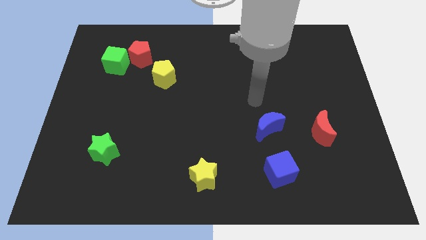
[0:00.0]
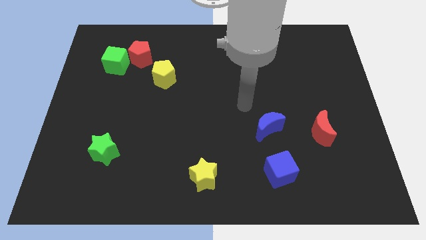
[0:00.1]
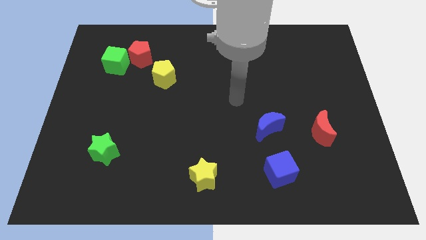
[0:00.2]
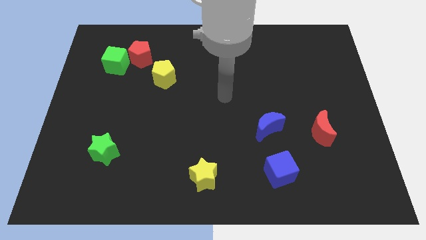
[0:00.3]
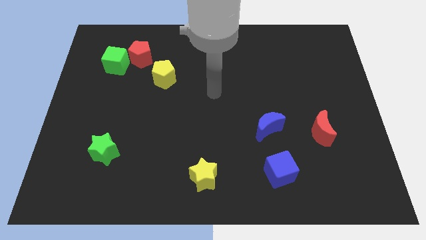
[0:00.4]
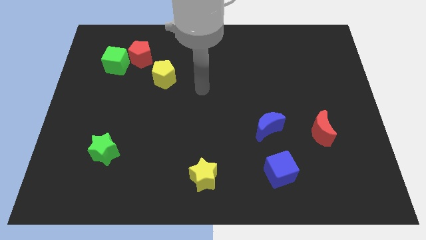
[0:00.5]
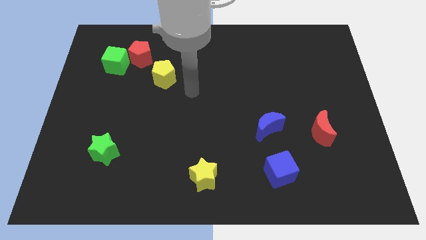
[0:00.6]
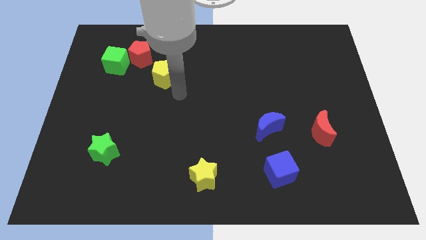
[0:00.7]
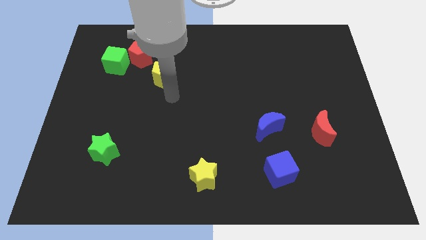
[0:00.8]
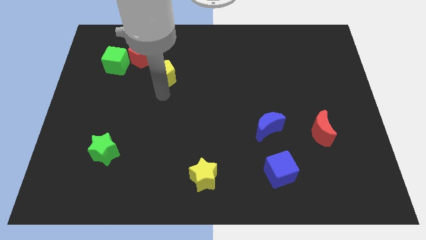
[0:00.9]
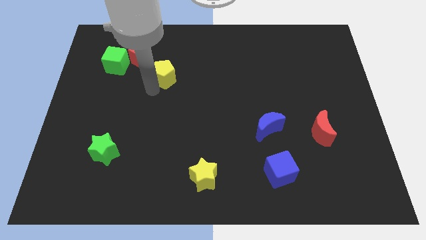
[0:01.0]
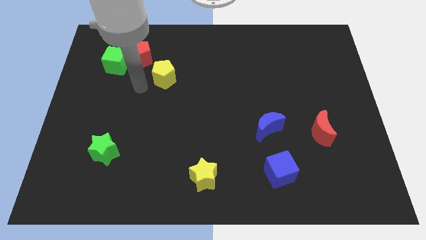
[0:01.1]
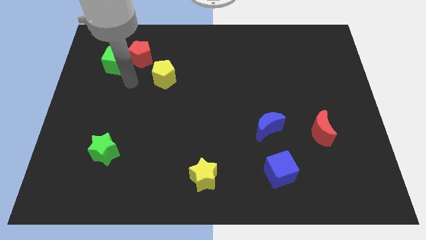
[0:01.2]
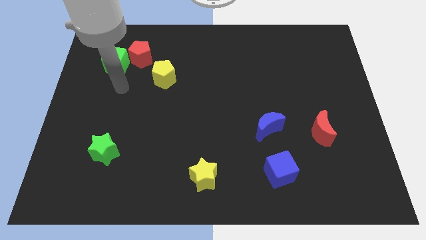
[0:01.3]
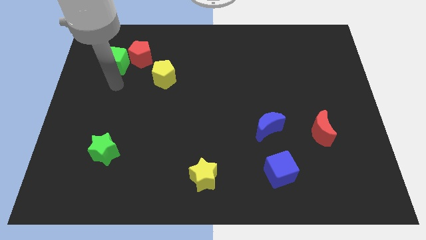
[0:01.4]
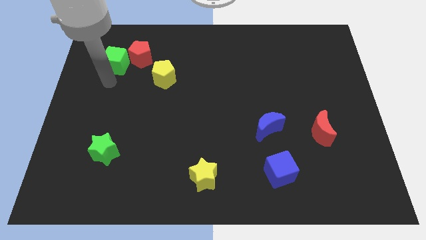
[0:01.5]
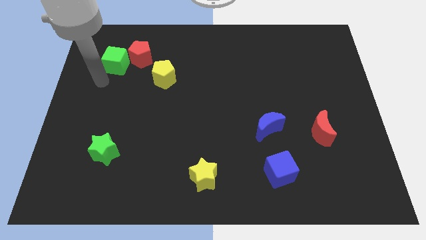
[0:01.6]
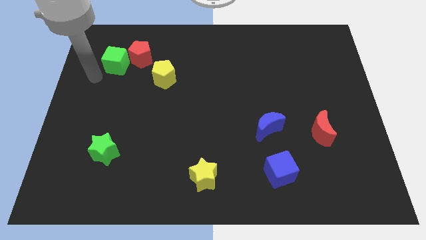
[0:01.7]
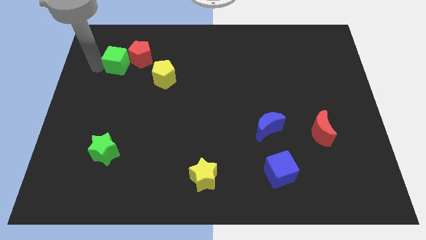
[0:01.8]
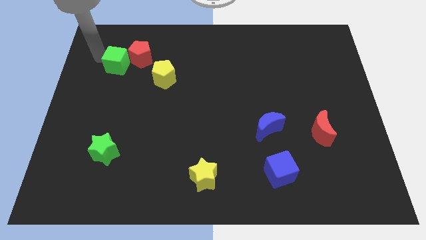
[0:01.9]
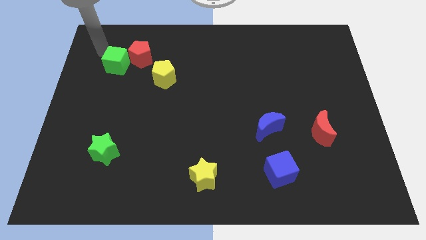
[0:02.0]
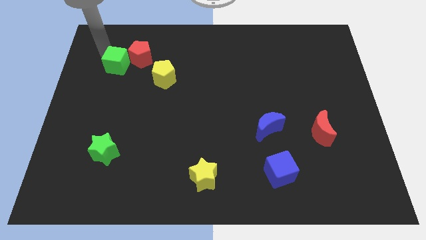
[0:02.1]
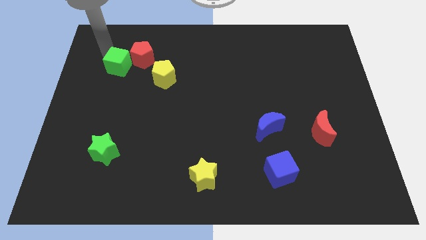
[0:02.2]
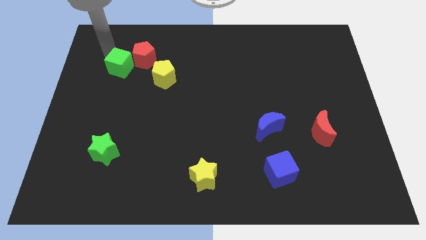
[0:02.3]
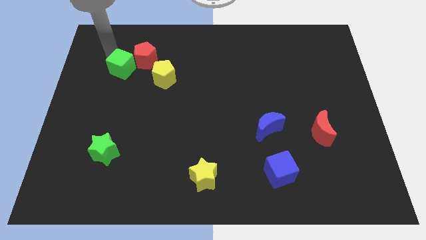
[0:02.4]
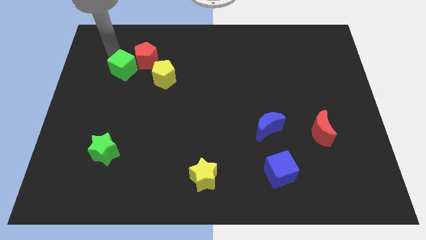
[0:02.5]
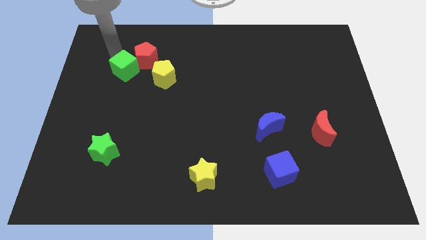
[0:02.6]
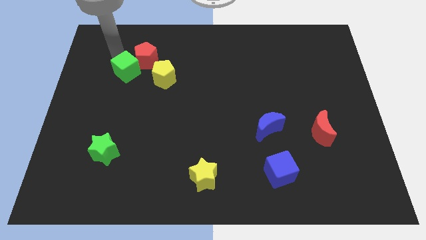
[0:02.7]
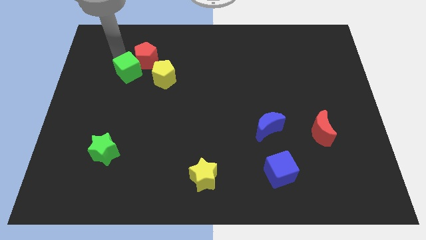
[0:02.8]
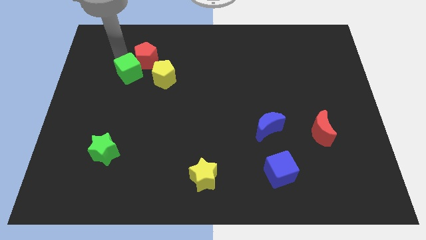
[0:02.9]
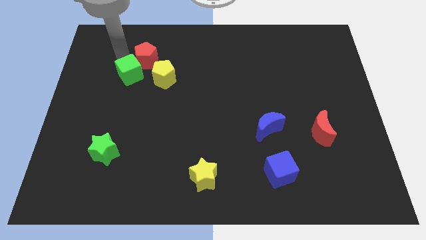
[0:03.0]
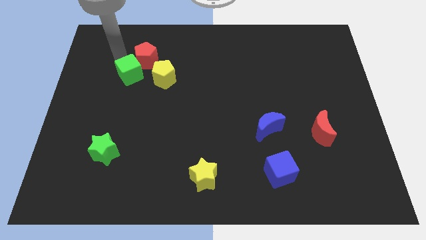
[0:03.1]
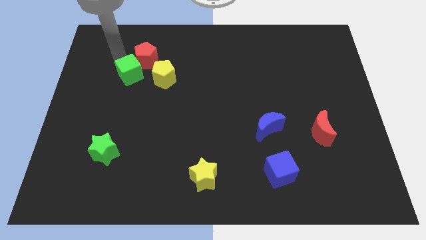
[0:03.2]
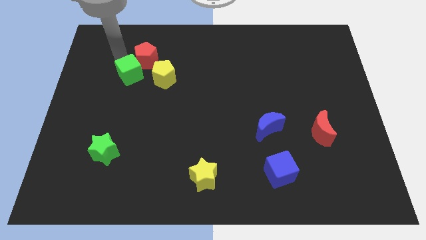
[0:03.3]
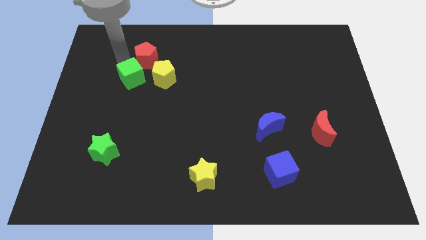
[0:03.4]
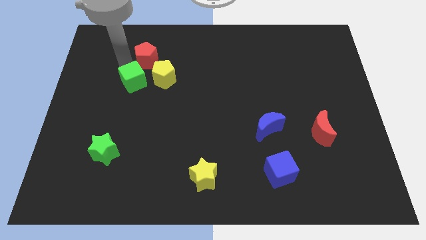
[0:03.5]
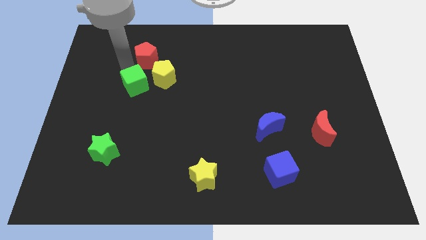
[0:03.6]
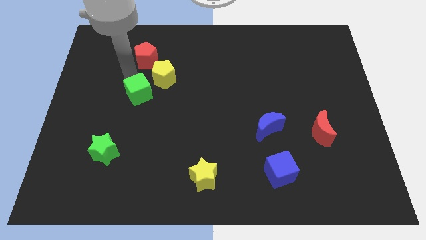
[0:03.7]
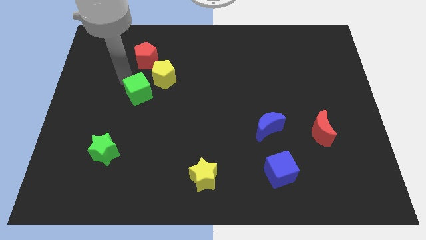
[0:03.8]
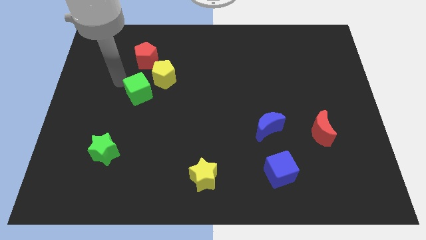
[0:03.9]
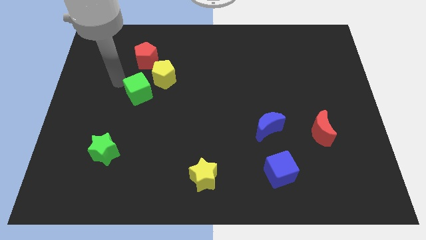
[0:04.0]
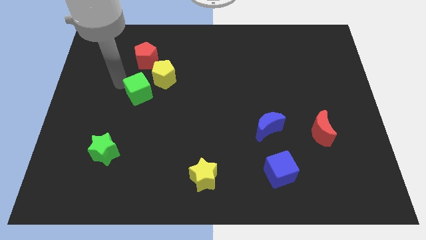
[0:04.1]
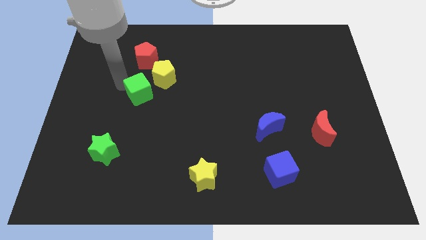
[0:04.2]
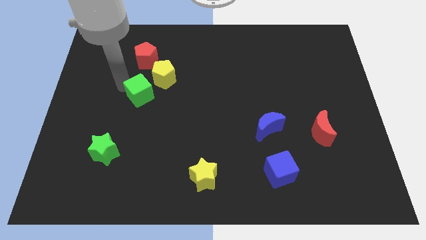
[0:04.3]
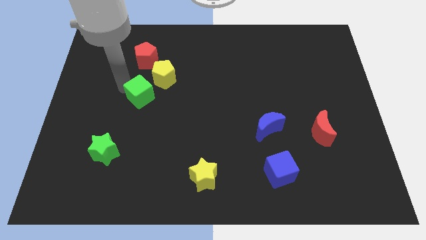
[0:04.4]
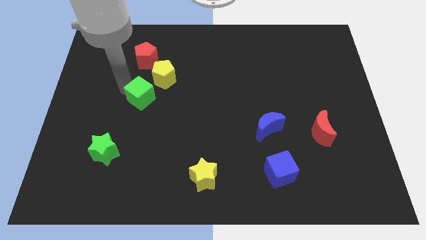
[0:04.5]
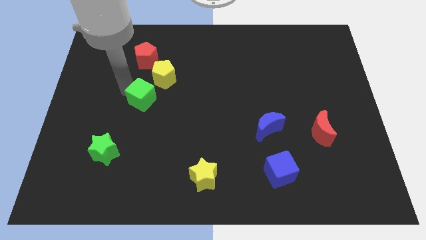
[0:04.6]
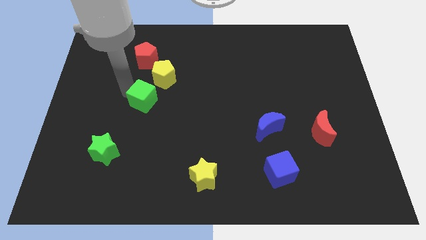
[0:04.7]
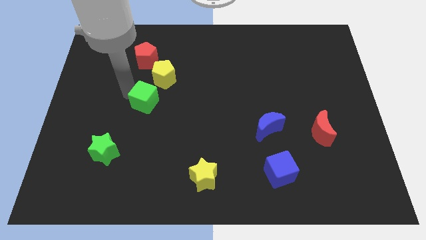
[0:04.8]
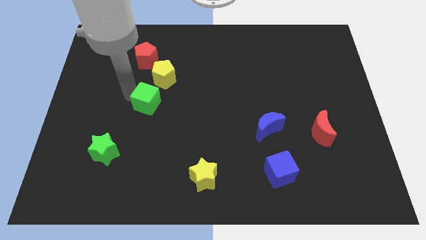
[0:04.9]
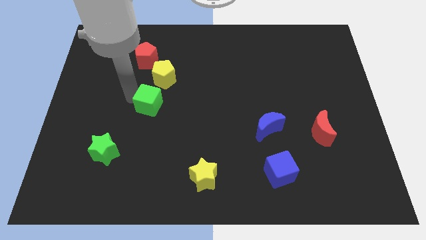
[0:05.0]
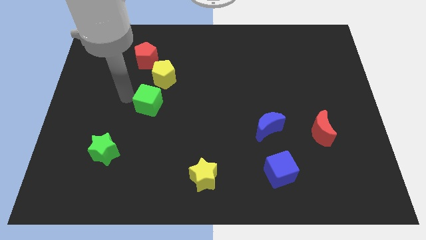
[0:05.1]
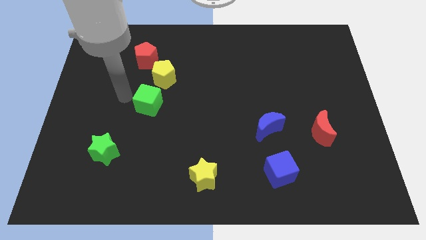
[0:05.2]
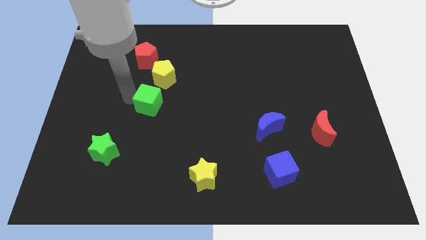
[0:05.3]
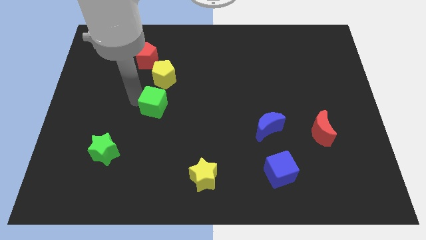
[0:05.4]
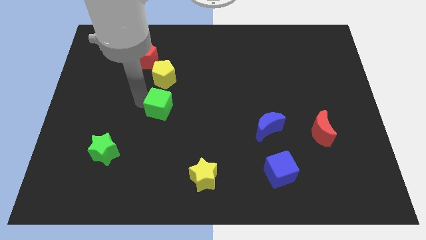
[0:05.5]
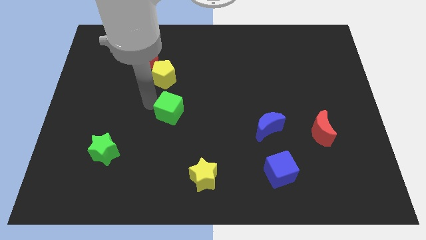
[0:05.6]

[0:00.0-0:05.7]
push the green cube downwards and right

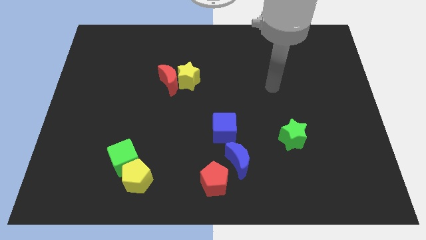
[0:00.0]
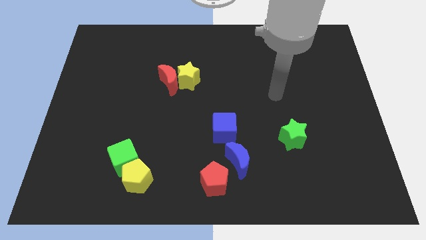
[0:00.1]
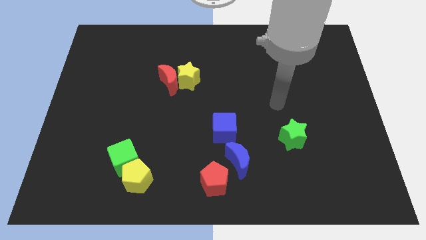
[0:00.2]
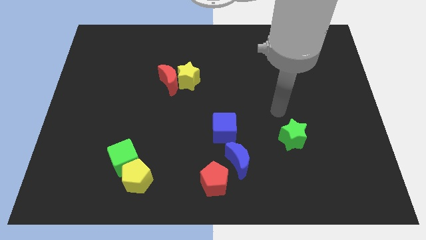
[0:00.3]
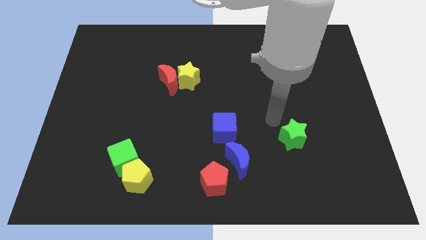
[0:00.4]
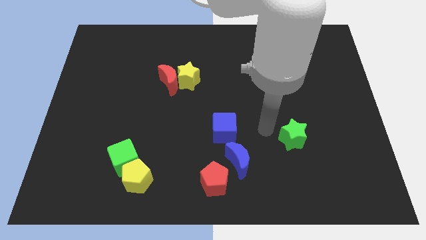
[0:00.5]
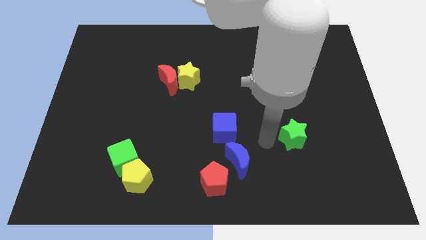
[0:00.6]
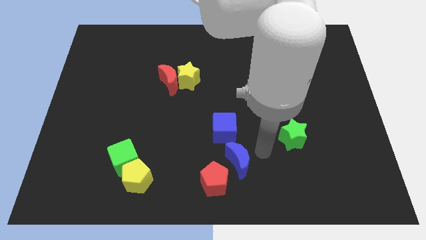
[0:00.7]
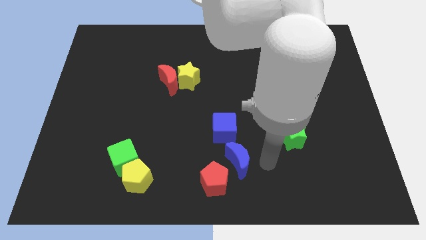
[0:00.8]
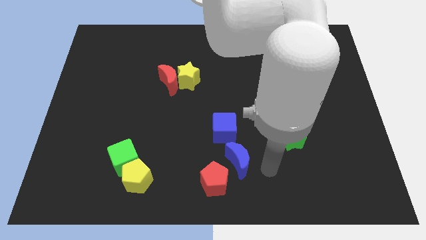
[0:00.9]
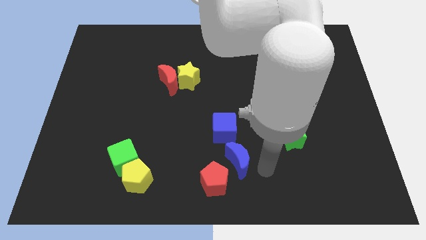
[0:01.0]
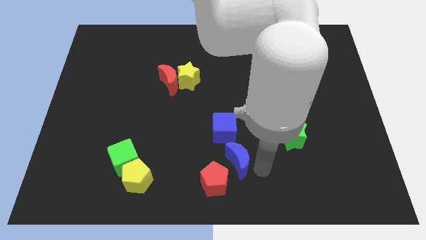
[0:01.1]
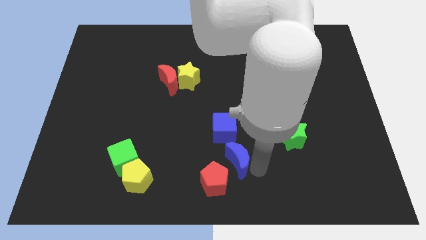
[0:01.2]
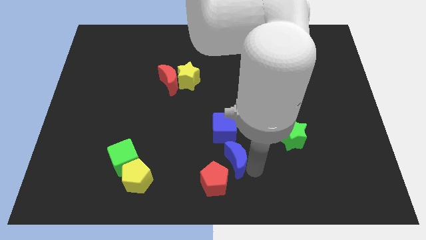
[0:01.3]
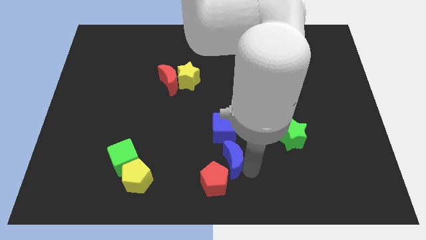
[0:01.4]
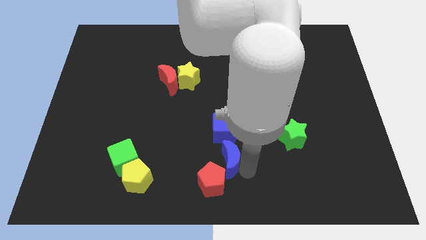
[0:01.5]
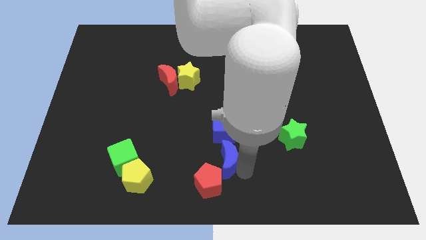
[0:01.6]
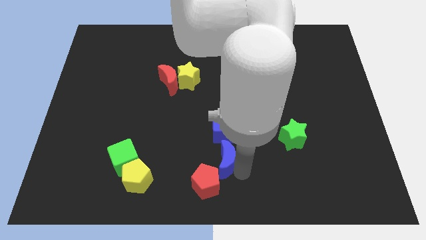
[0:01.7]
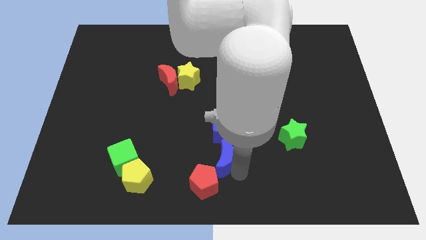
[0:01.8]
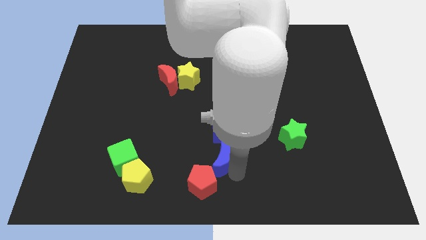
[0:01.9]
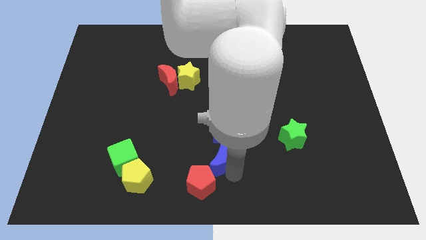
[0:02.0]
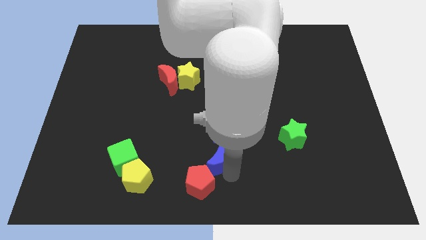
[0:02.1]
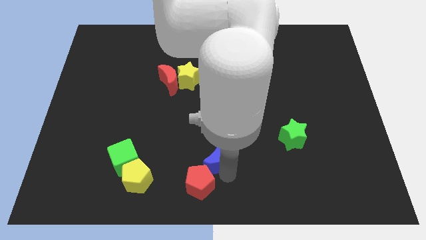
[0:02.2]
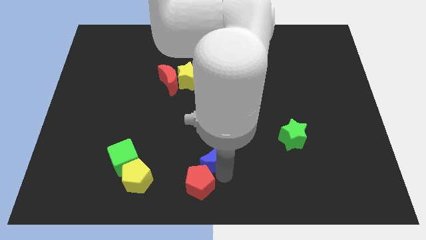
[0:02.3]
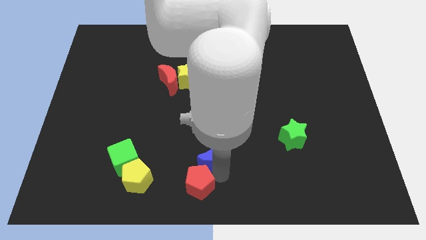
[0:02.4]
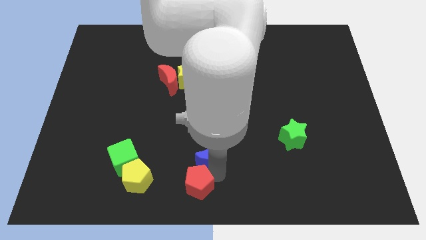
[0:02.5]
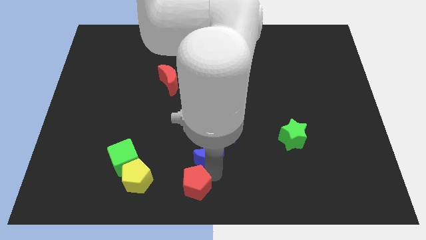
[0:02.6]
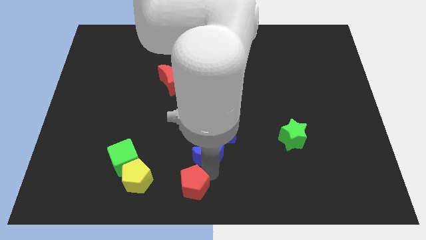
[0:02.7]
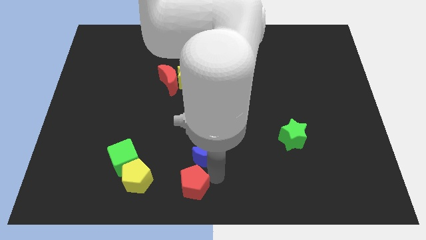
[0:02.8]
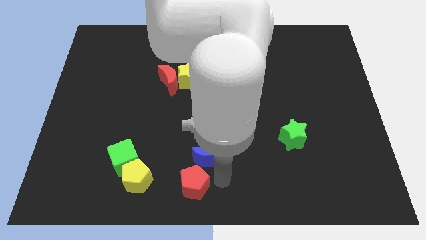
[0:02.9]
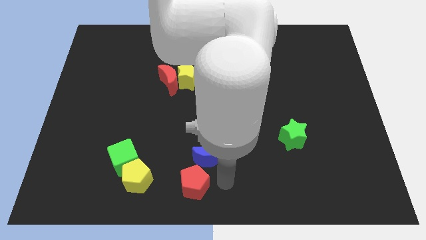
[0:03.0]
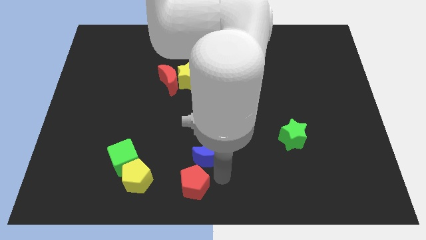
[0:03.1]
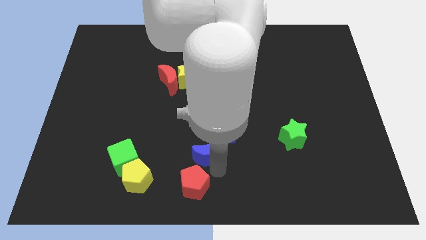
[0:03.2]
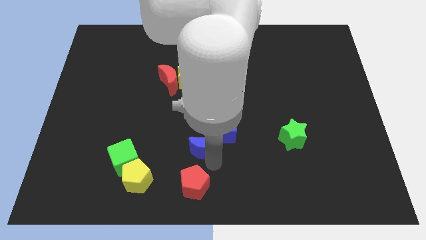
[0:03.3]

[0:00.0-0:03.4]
slide the blue moon up and left slightly
